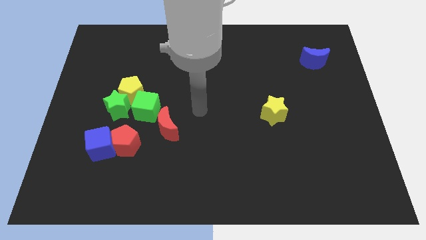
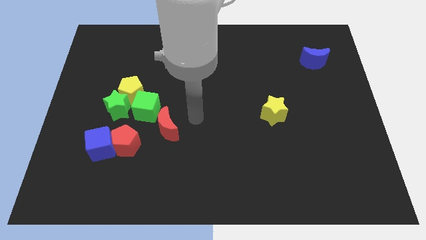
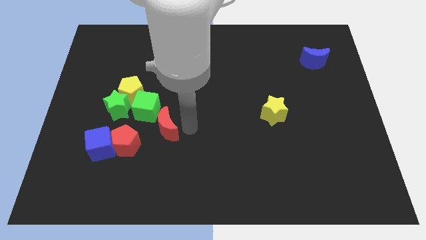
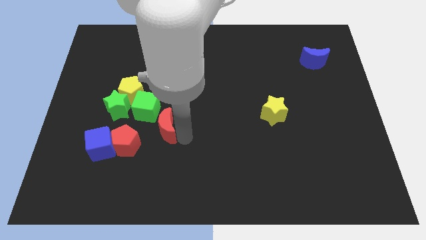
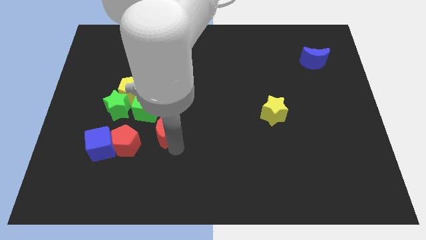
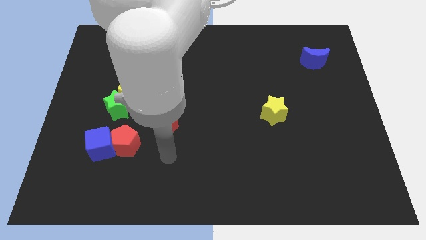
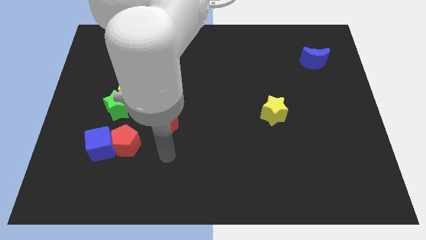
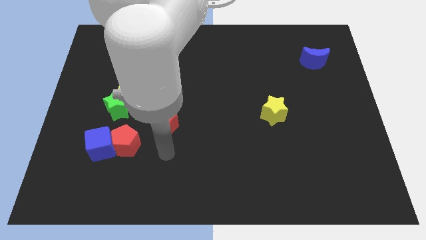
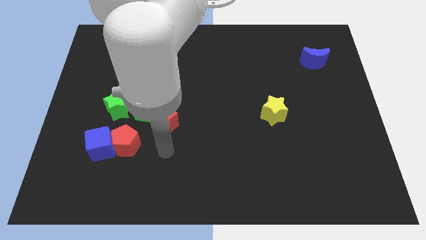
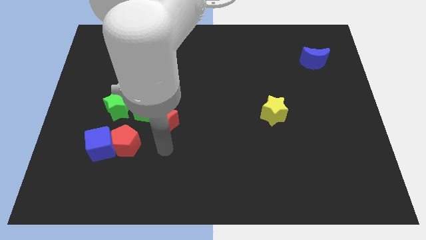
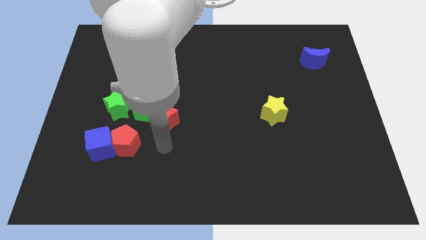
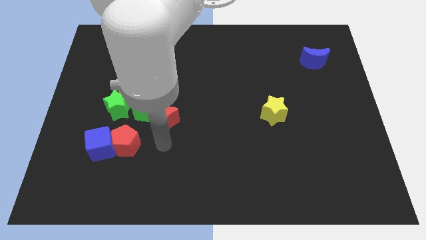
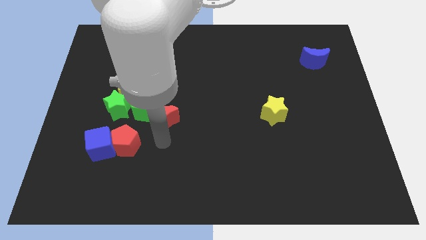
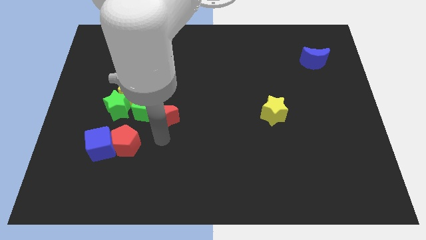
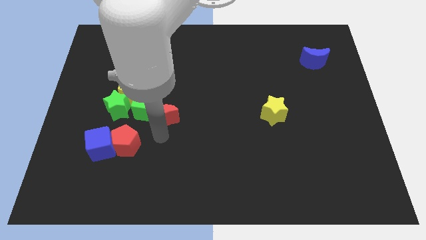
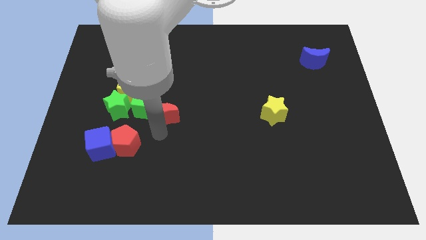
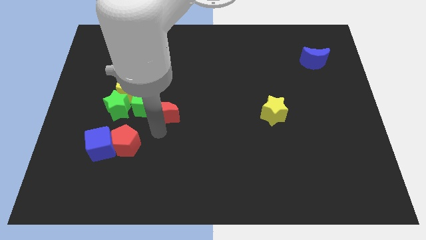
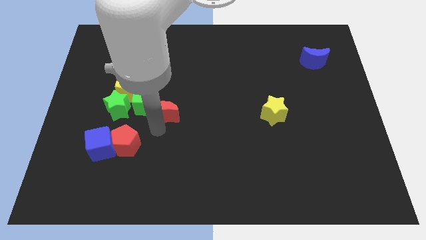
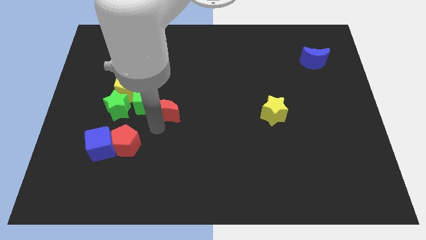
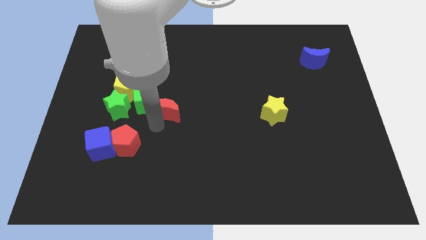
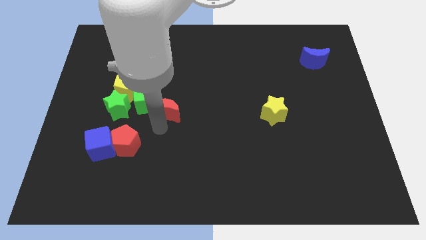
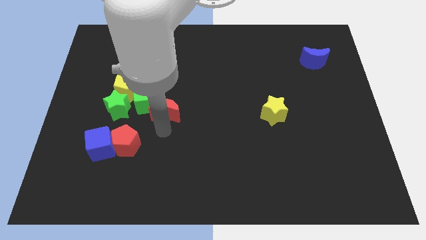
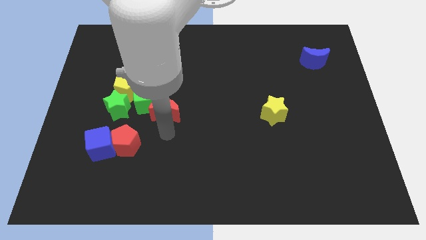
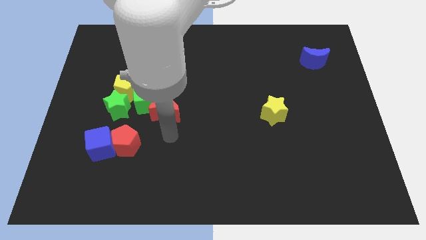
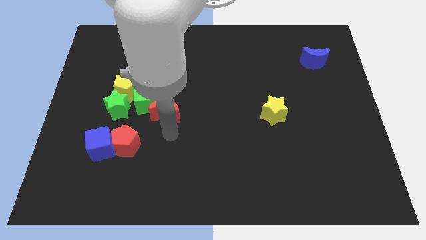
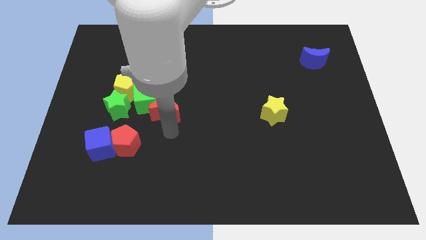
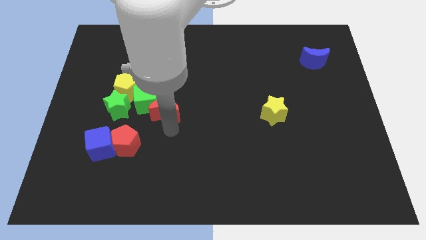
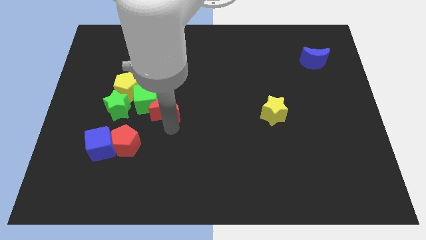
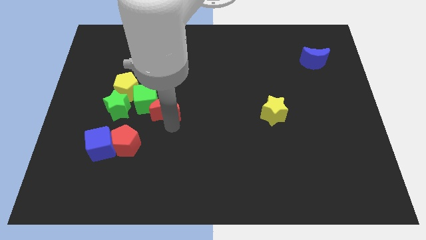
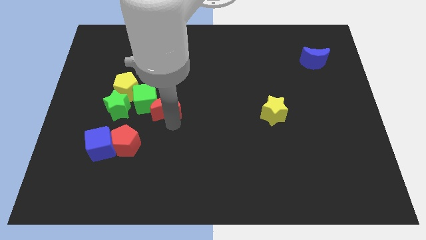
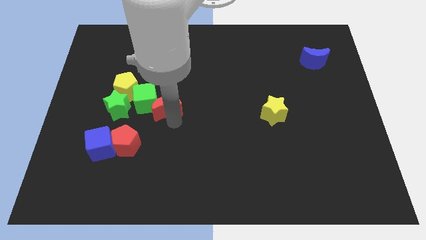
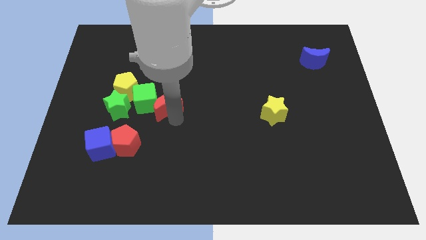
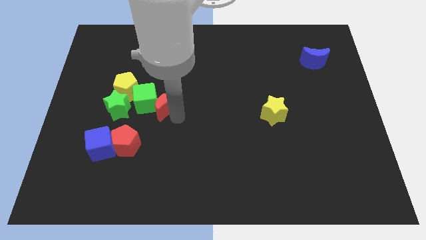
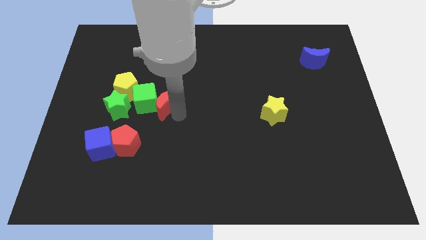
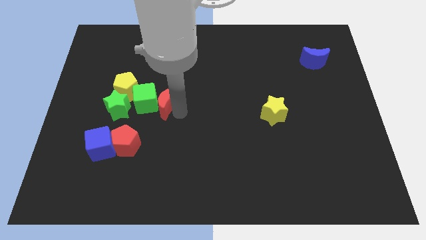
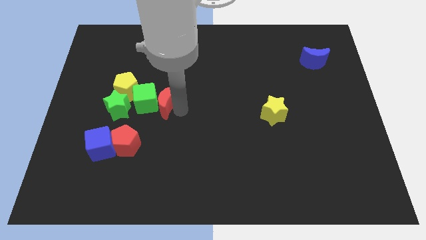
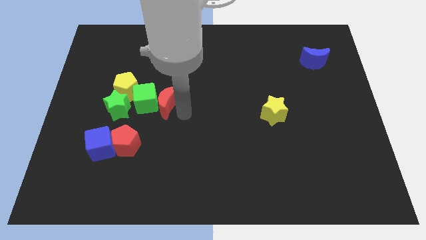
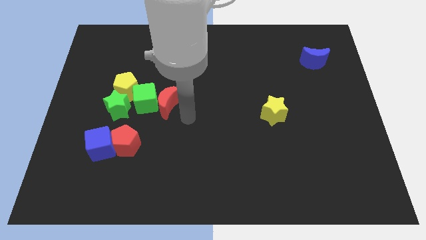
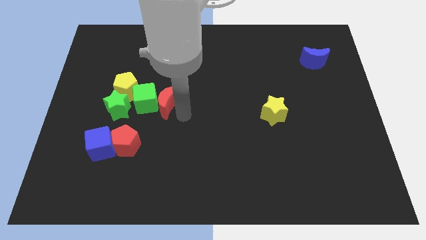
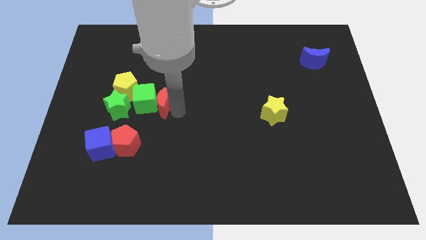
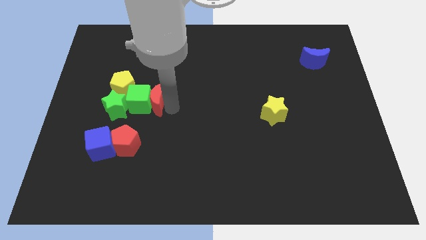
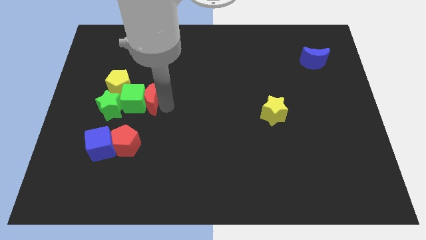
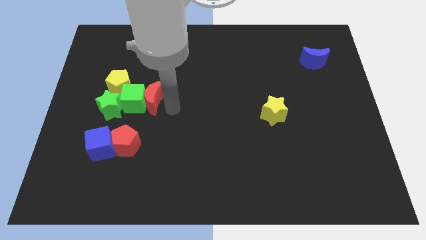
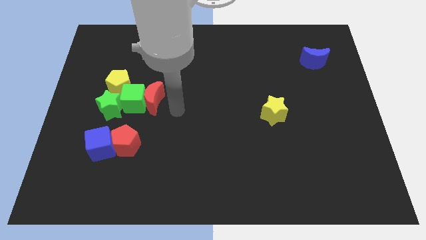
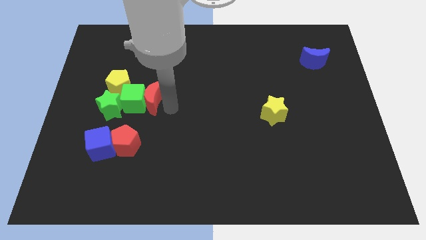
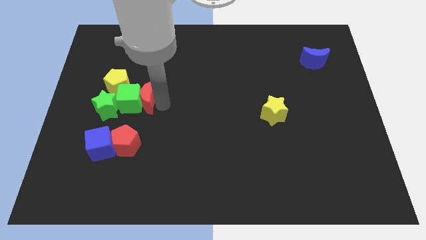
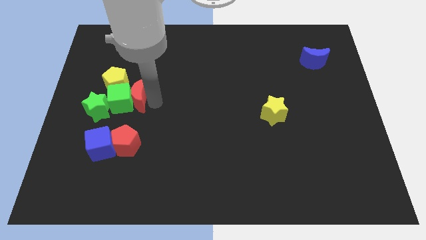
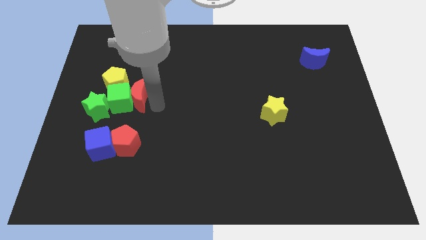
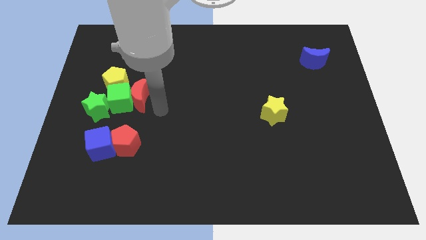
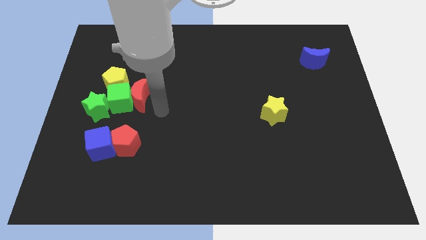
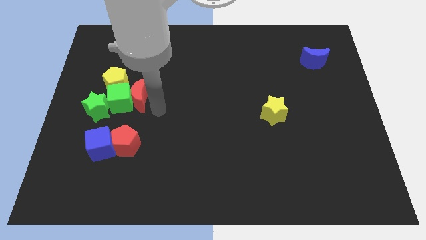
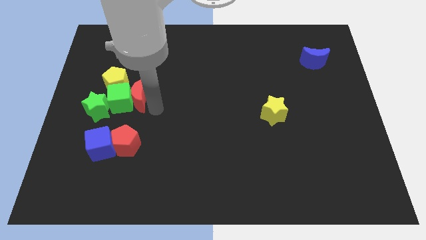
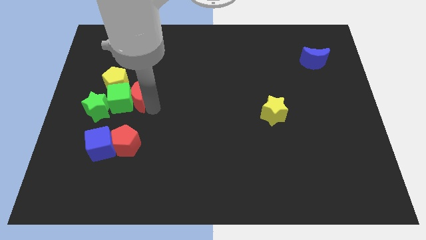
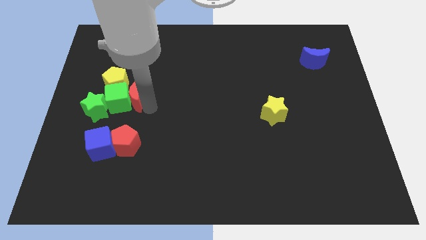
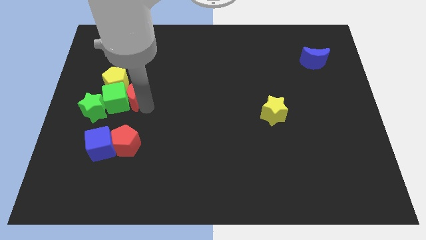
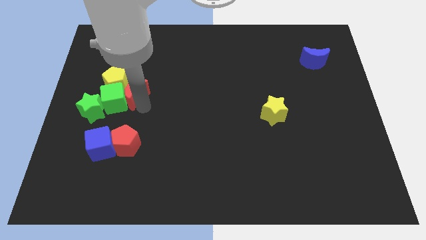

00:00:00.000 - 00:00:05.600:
slide the red moon towards the yellow pentagon

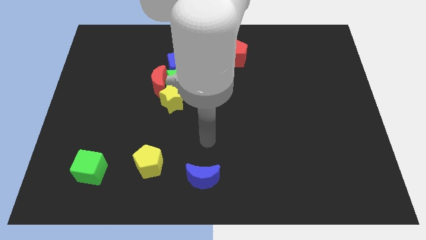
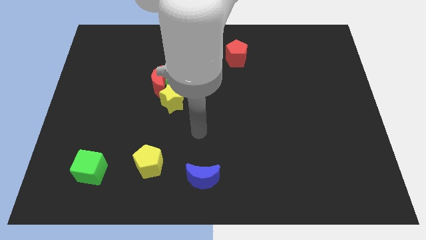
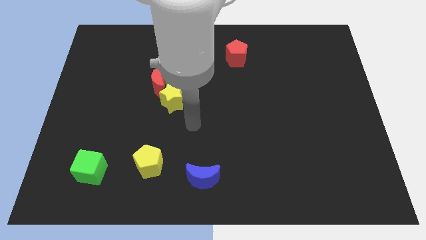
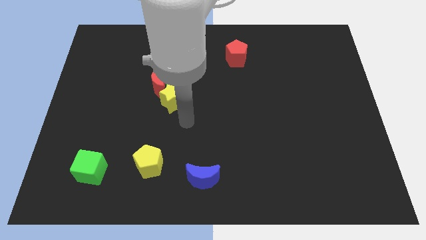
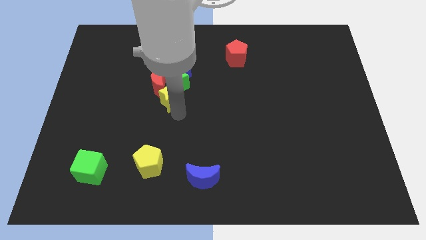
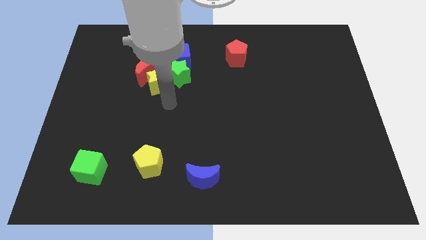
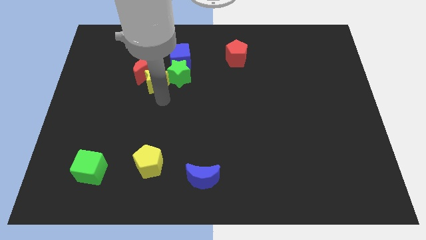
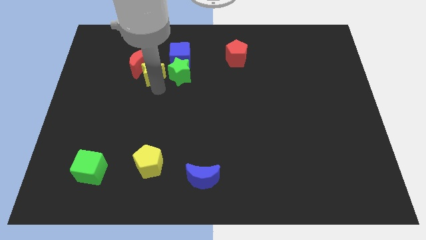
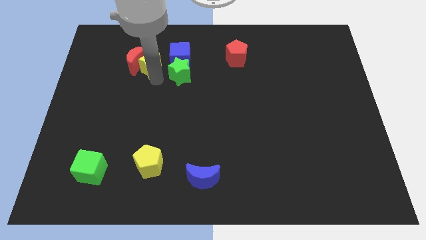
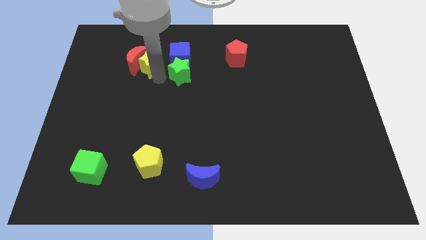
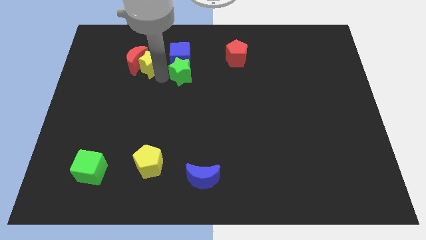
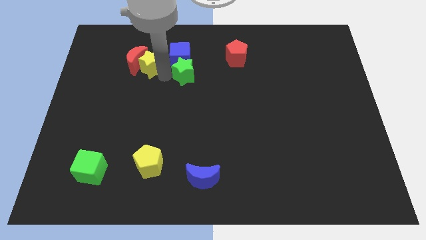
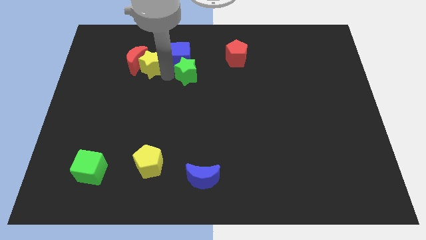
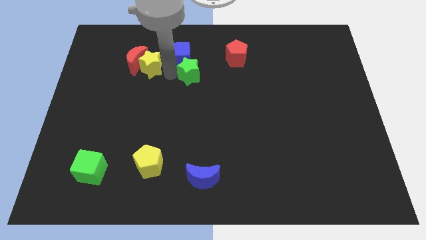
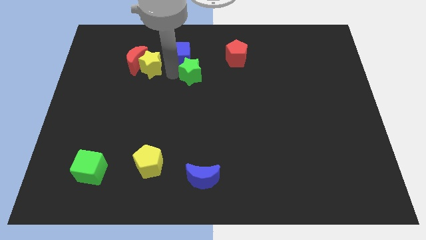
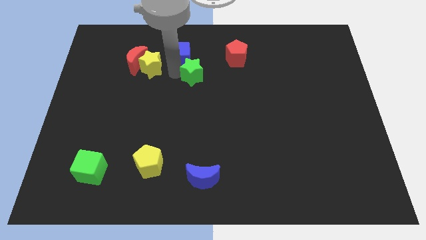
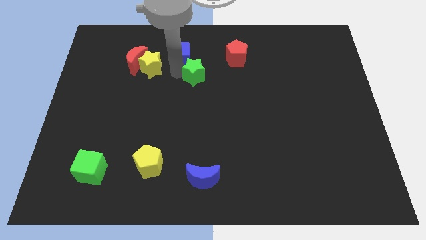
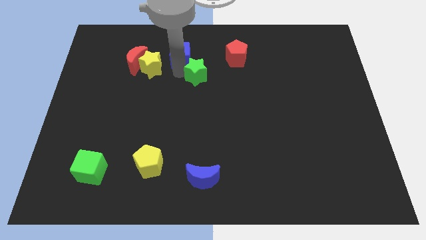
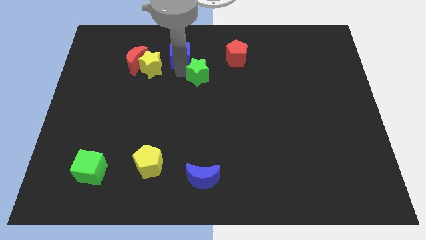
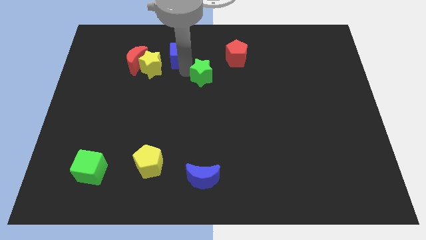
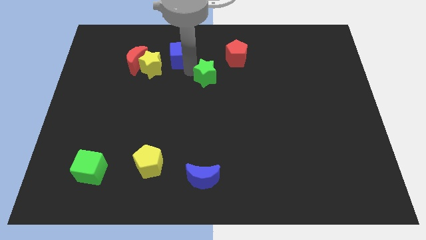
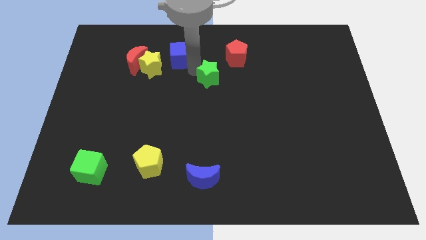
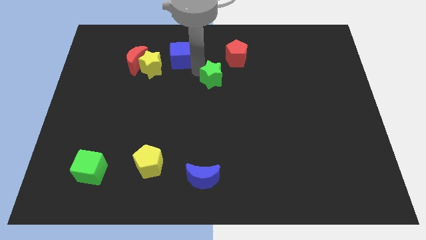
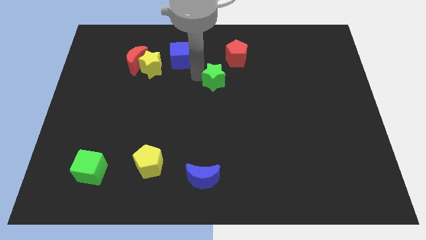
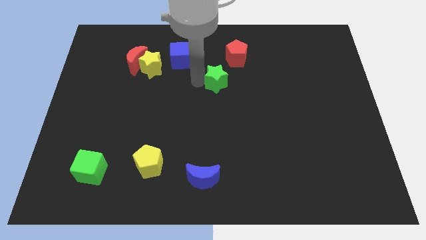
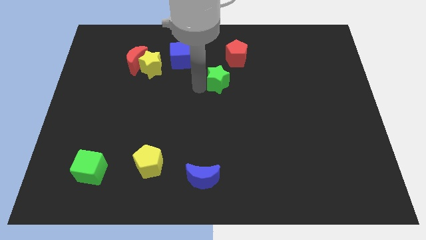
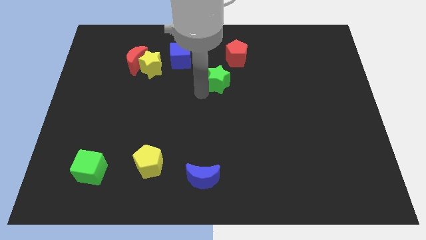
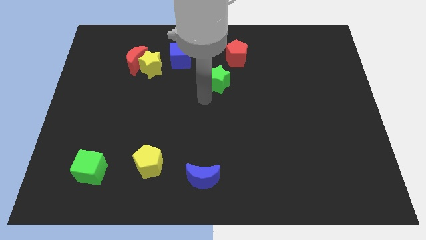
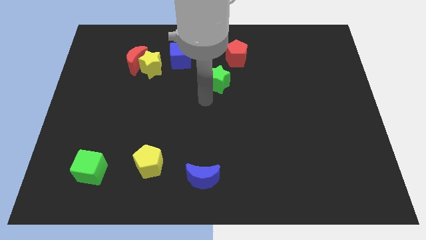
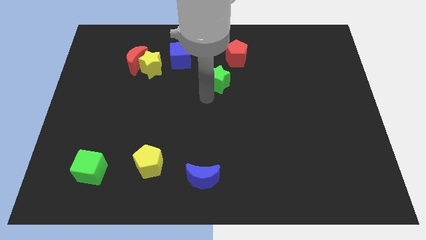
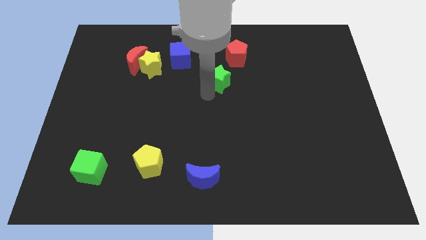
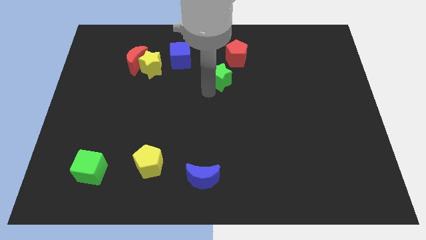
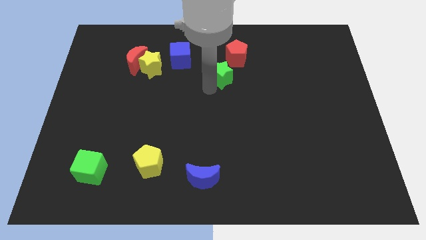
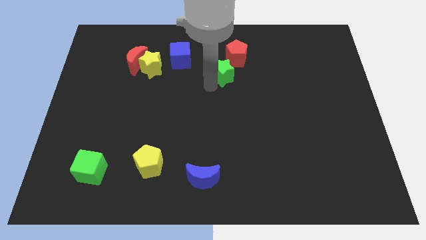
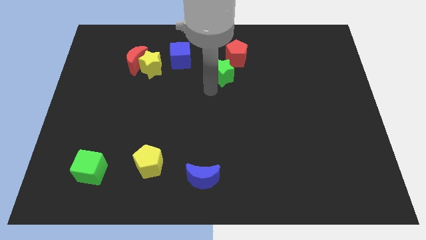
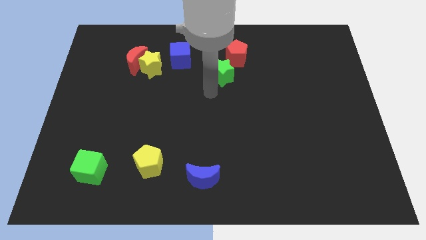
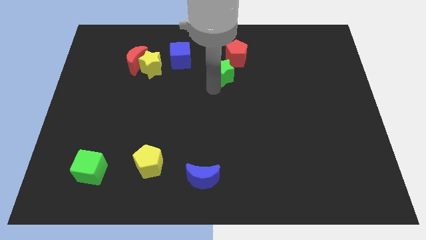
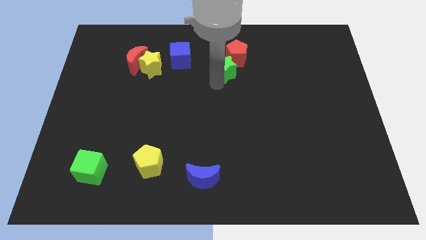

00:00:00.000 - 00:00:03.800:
push the green star to the red pentagon
